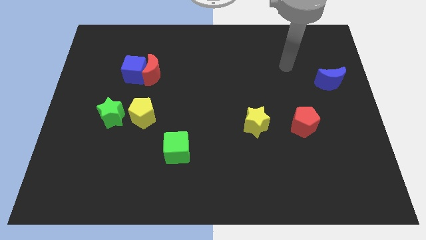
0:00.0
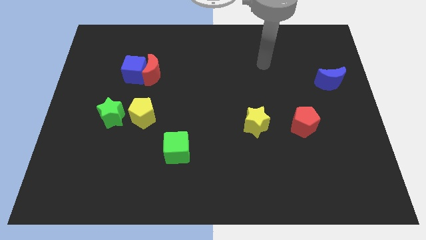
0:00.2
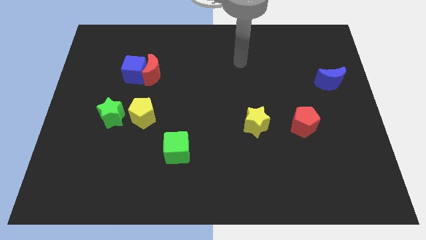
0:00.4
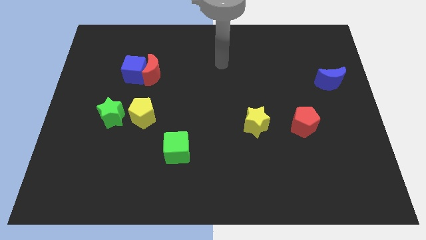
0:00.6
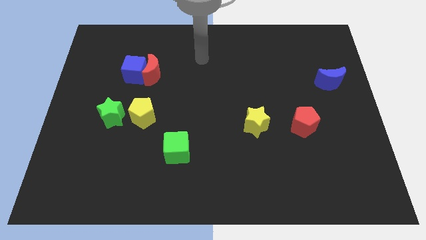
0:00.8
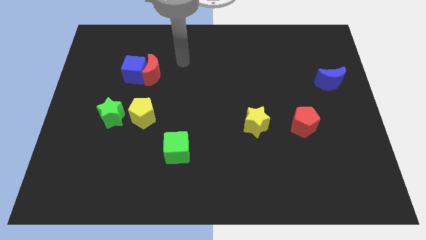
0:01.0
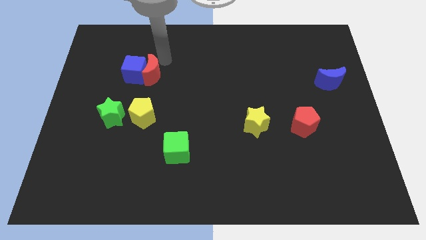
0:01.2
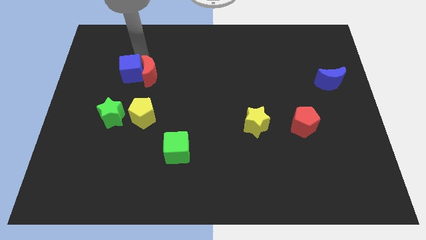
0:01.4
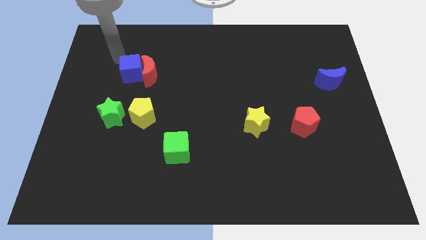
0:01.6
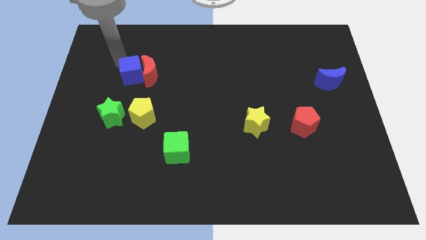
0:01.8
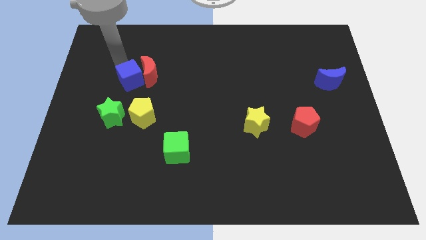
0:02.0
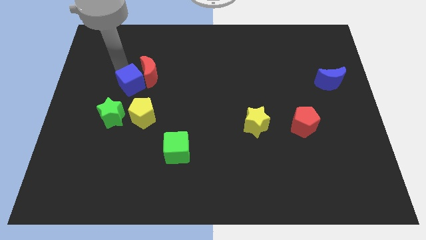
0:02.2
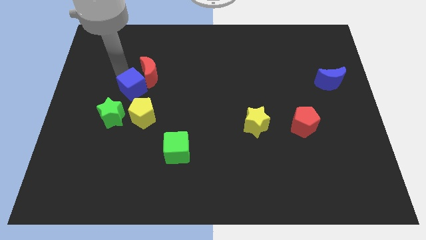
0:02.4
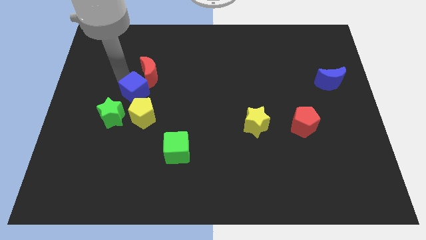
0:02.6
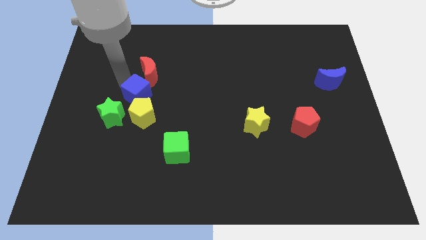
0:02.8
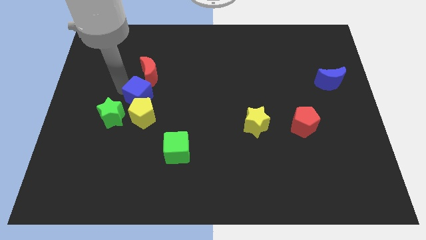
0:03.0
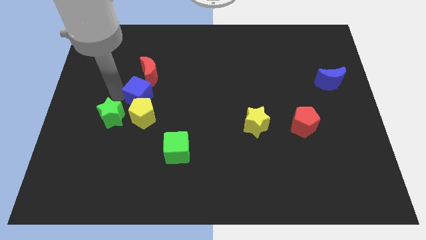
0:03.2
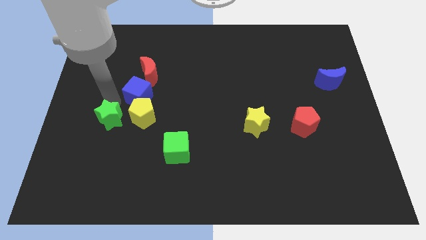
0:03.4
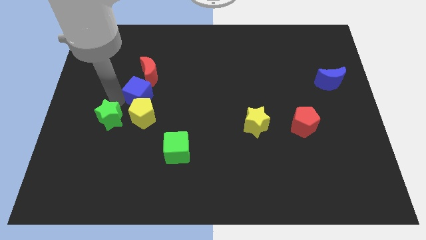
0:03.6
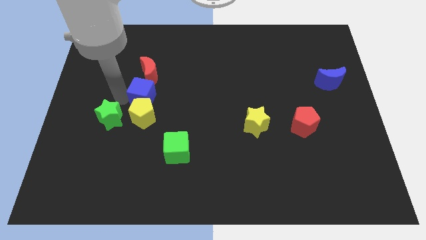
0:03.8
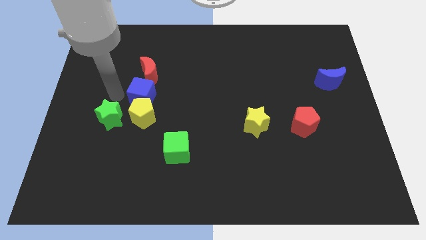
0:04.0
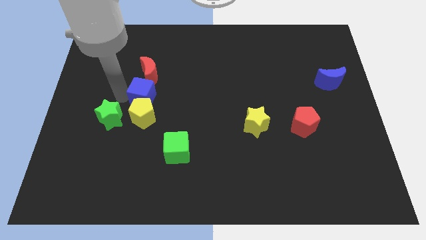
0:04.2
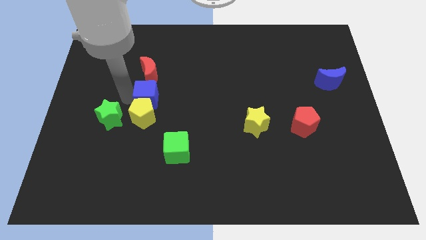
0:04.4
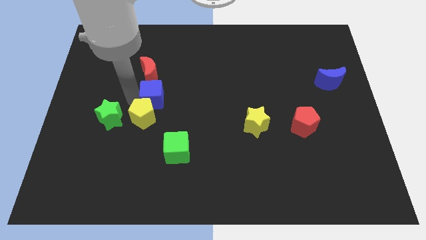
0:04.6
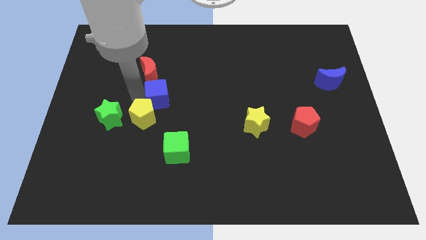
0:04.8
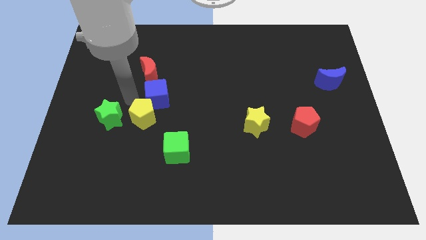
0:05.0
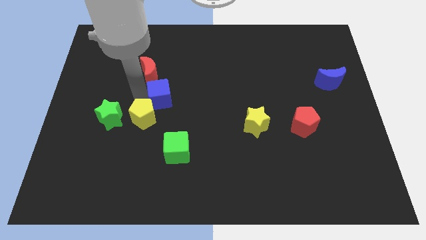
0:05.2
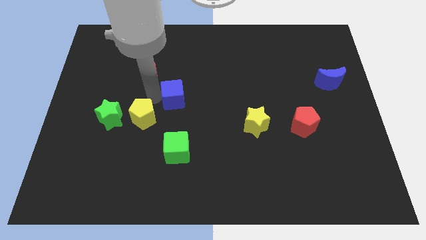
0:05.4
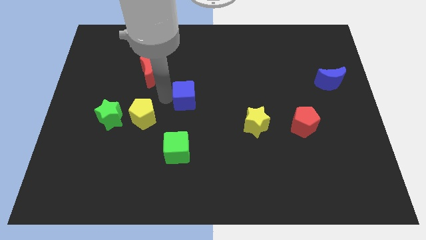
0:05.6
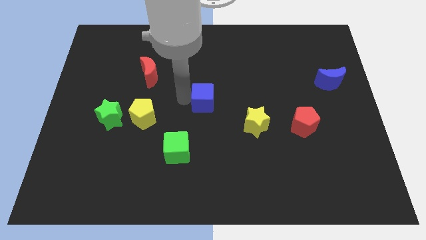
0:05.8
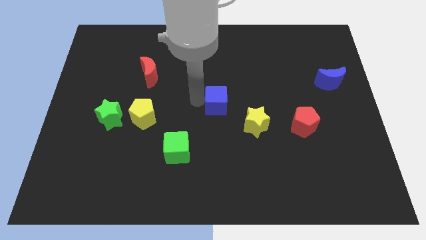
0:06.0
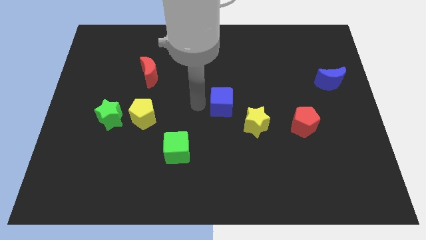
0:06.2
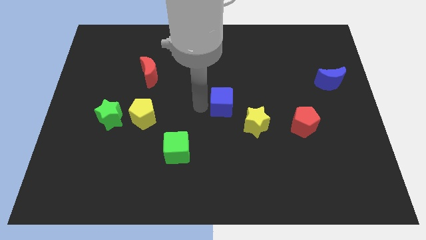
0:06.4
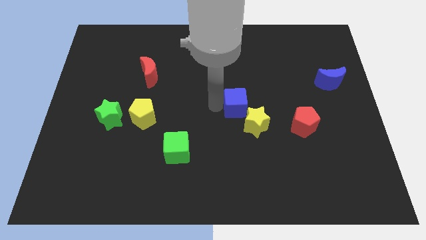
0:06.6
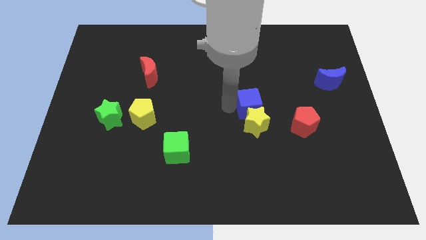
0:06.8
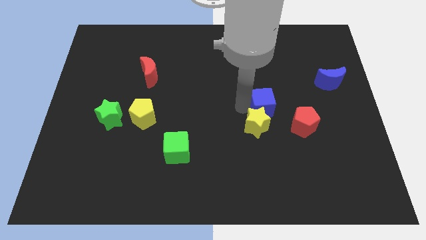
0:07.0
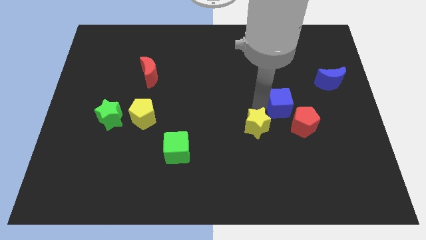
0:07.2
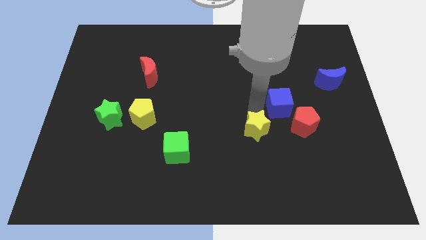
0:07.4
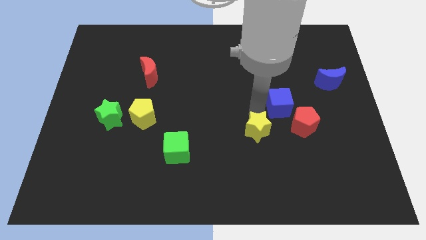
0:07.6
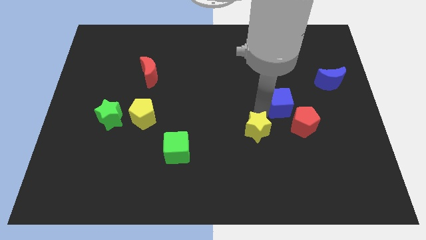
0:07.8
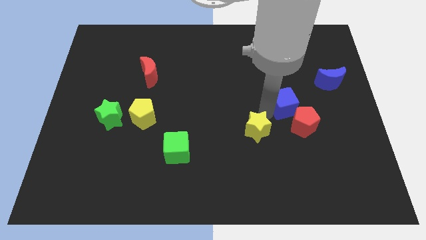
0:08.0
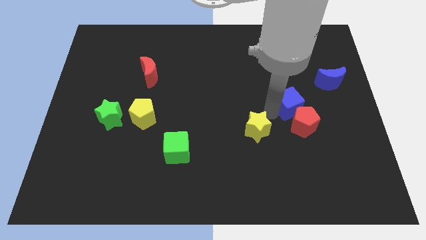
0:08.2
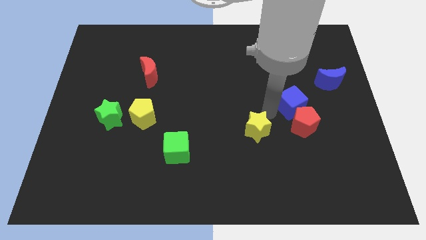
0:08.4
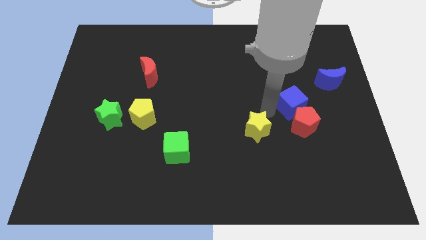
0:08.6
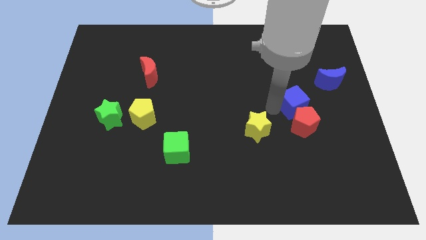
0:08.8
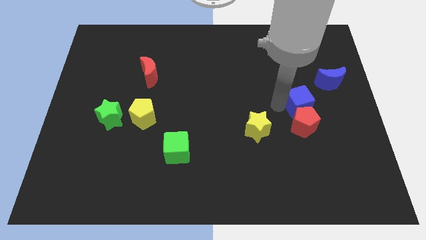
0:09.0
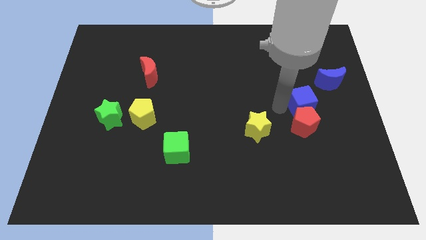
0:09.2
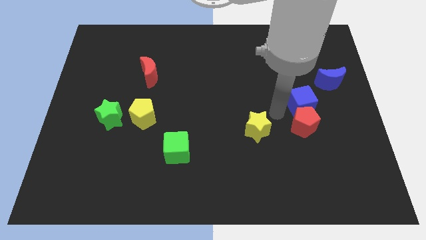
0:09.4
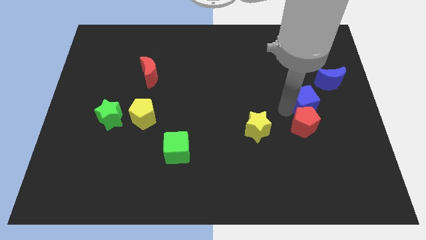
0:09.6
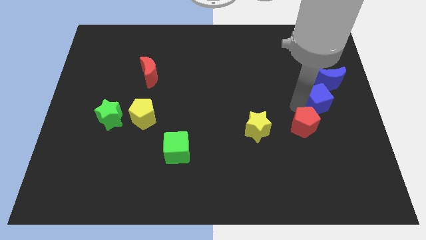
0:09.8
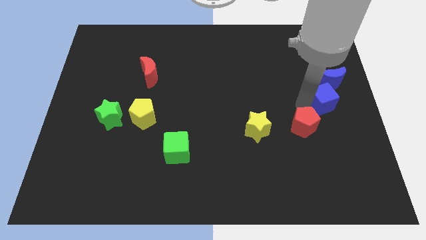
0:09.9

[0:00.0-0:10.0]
slide the blue cube to the right side

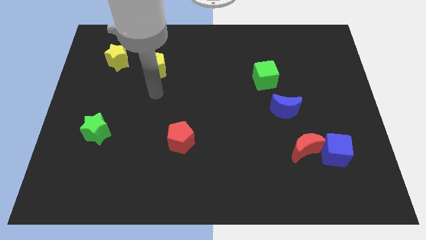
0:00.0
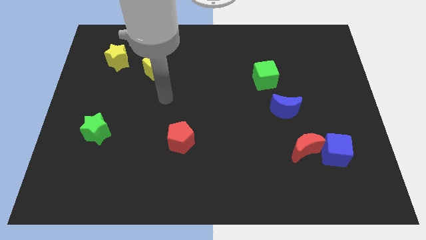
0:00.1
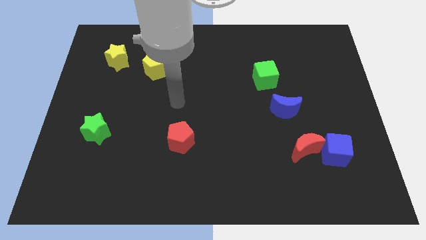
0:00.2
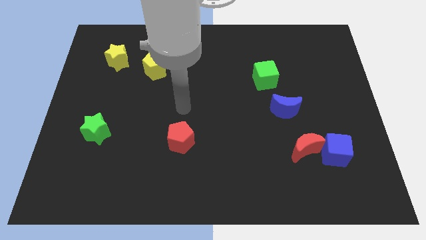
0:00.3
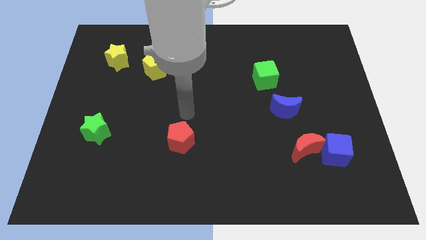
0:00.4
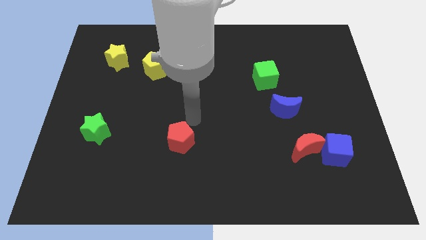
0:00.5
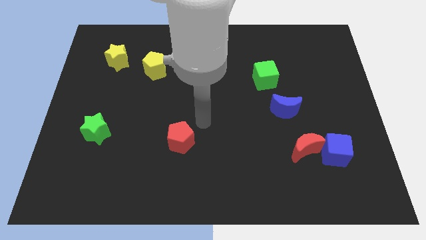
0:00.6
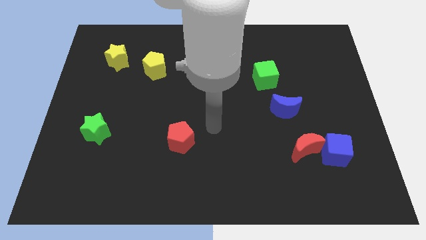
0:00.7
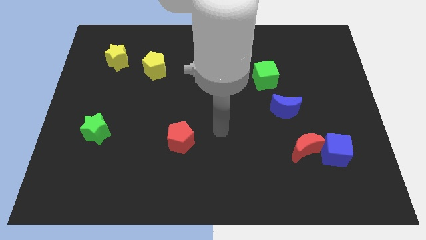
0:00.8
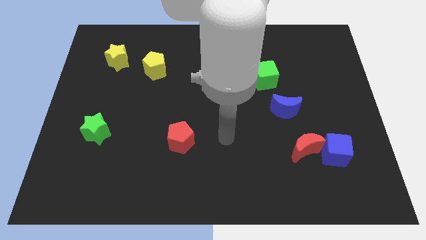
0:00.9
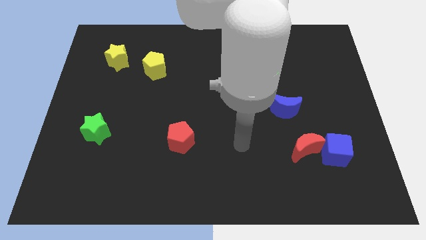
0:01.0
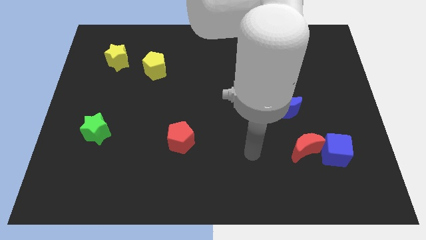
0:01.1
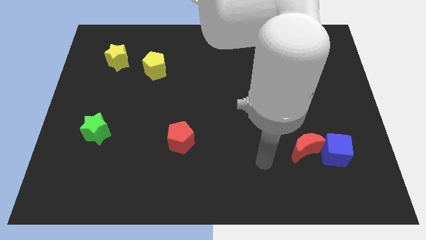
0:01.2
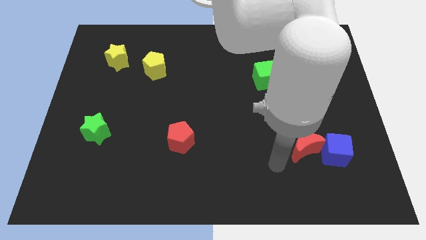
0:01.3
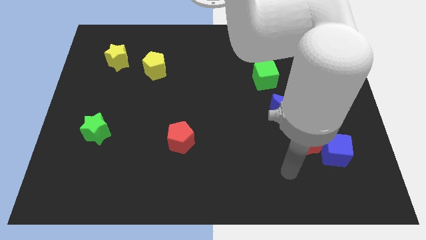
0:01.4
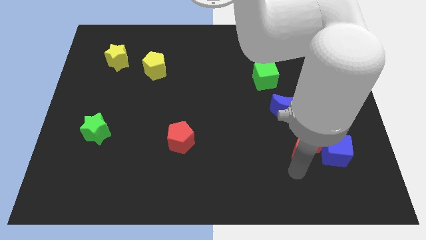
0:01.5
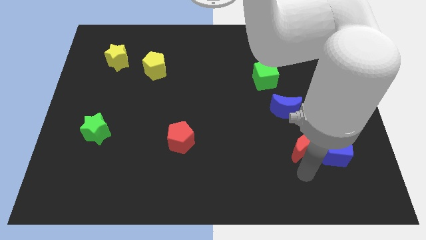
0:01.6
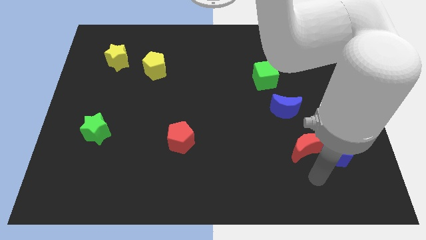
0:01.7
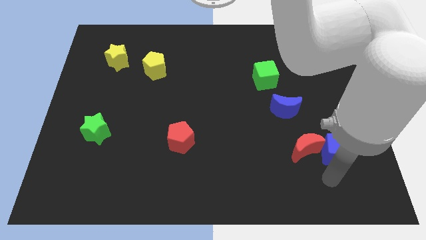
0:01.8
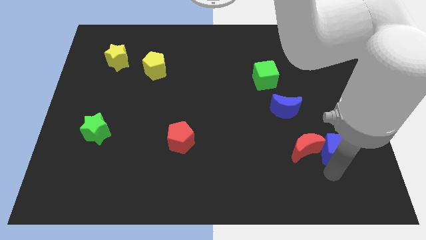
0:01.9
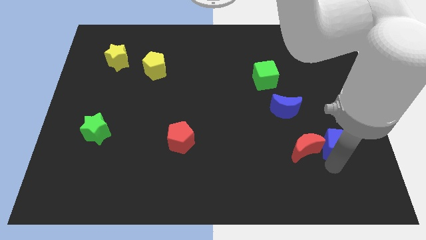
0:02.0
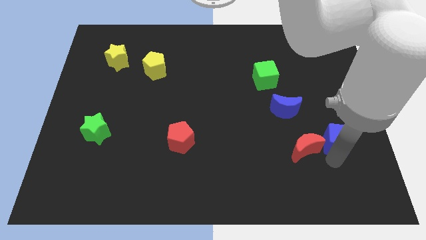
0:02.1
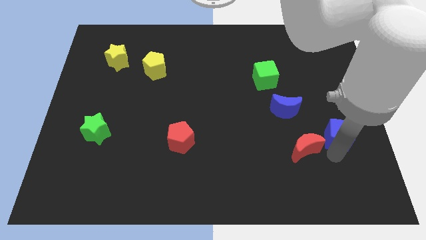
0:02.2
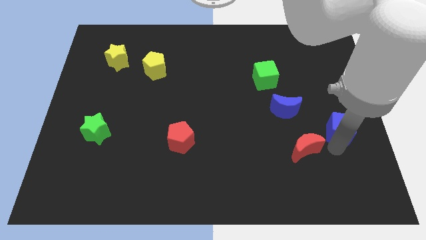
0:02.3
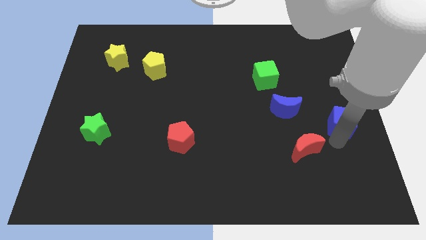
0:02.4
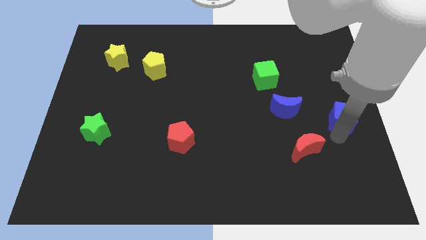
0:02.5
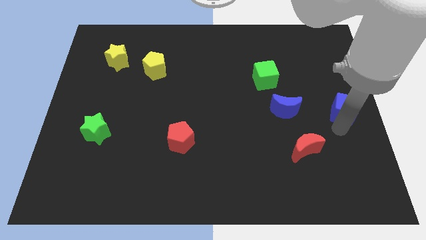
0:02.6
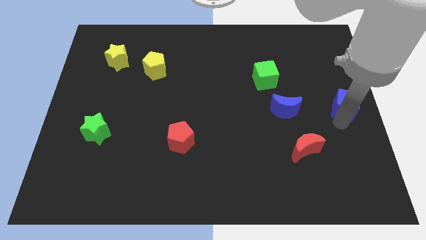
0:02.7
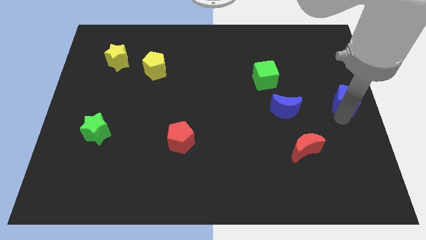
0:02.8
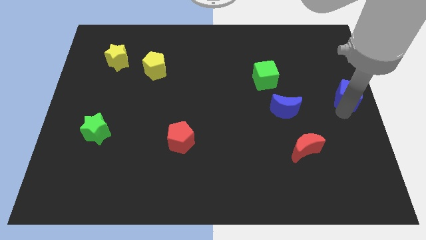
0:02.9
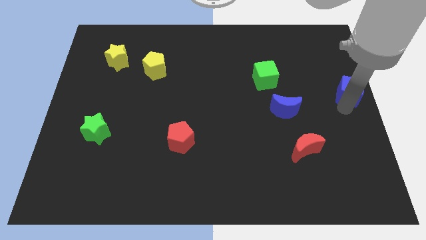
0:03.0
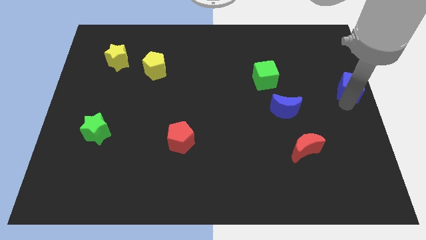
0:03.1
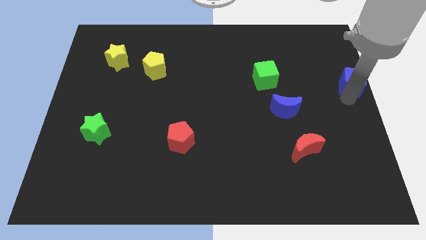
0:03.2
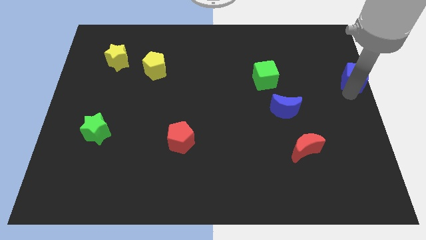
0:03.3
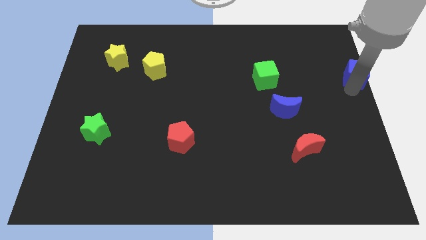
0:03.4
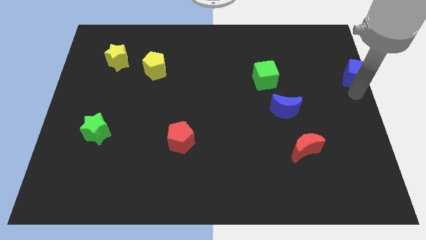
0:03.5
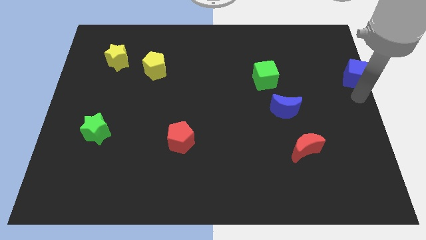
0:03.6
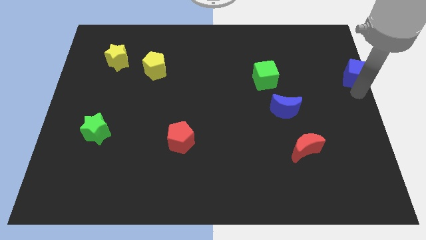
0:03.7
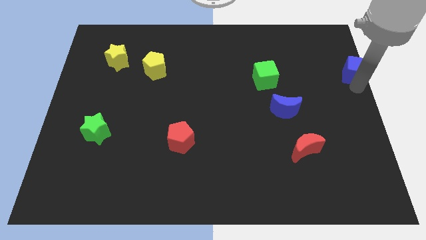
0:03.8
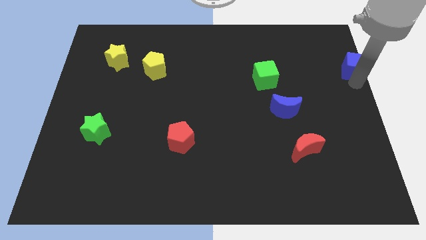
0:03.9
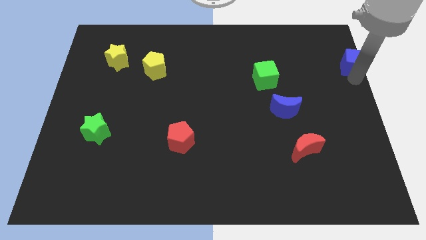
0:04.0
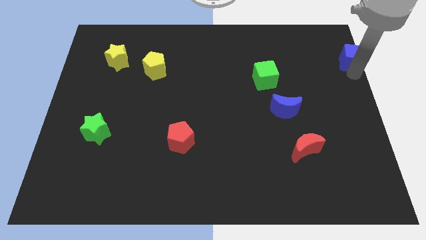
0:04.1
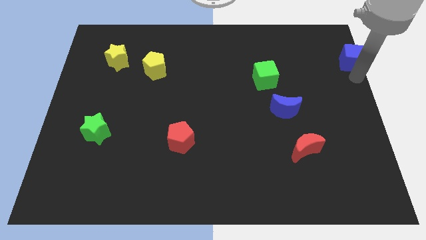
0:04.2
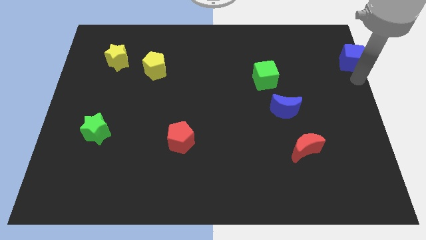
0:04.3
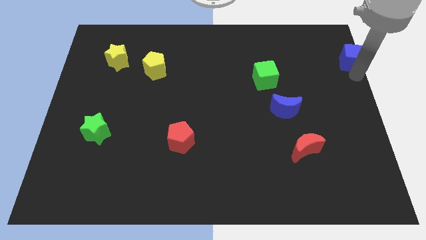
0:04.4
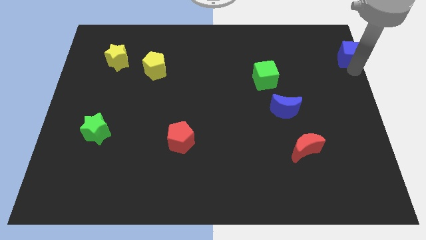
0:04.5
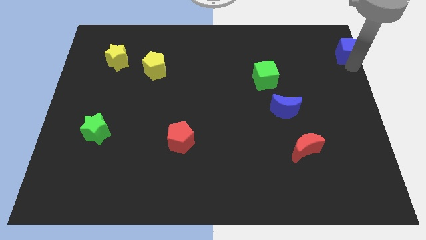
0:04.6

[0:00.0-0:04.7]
move the blue cube to the top right
